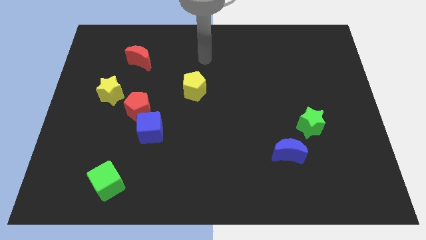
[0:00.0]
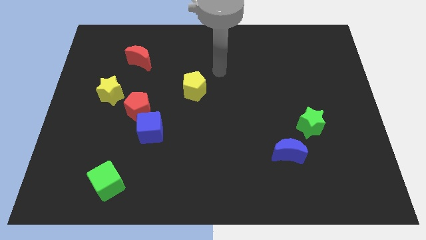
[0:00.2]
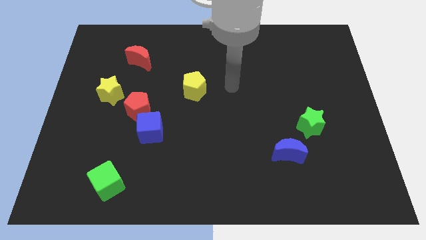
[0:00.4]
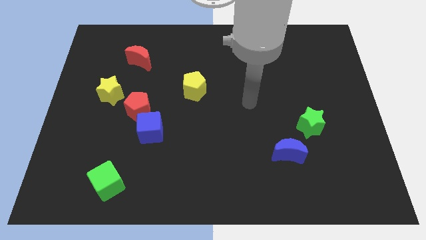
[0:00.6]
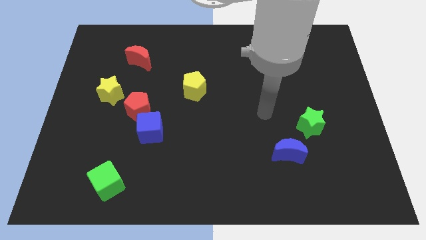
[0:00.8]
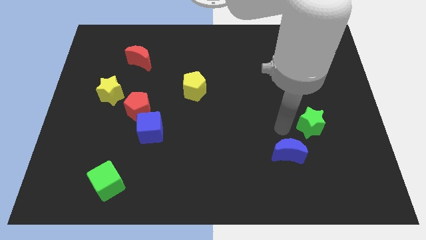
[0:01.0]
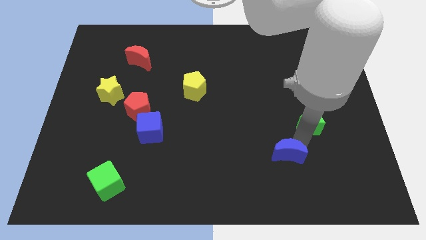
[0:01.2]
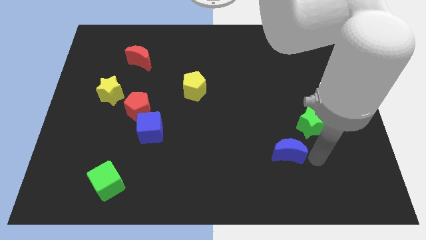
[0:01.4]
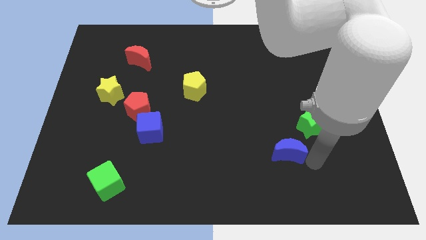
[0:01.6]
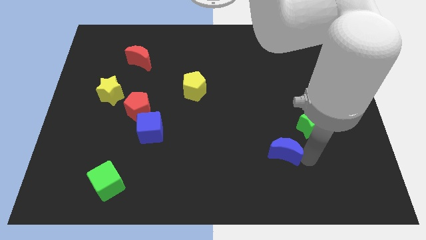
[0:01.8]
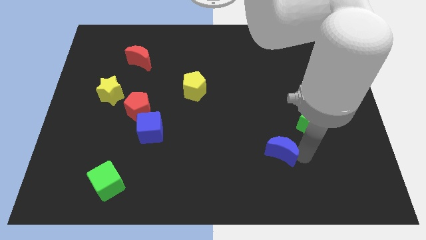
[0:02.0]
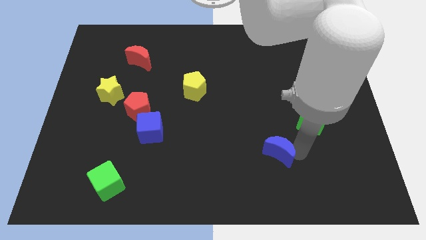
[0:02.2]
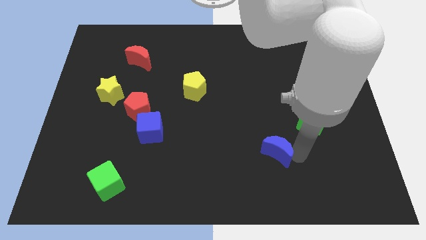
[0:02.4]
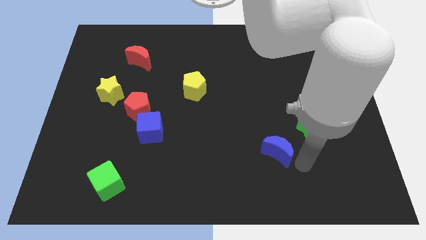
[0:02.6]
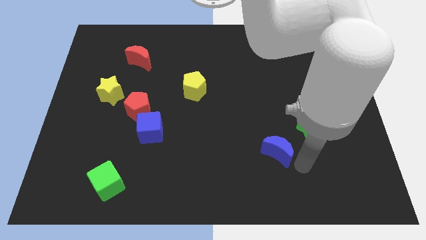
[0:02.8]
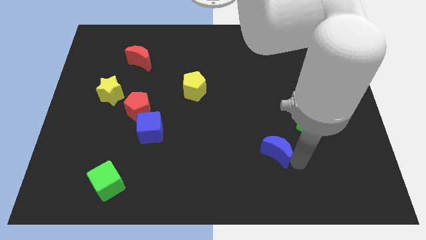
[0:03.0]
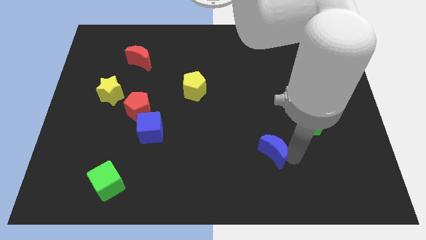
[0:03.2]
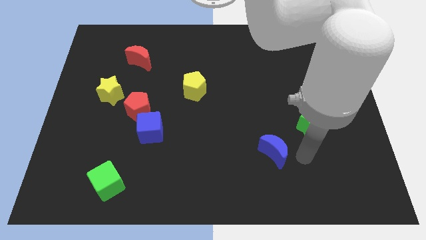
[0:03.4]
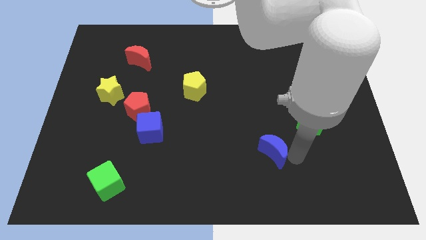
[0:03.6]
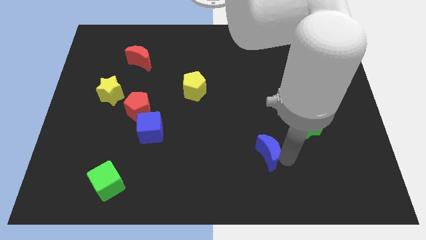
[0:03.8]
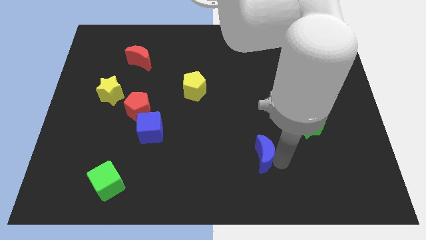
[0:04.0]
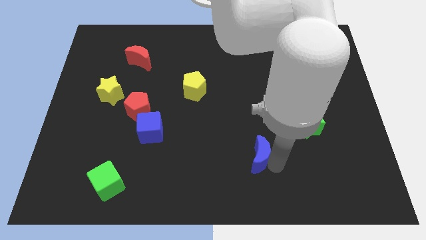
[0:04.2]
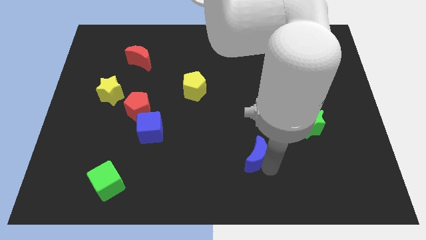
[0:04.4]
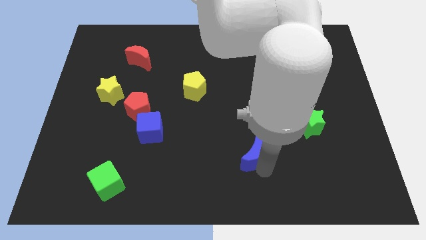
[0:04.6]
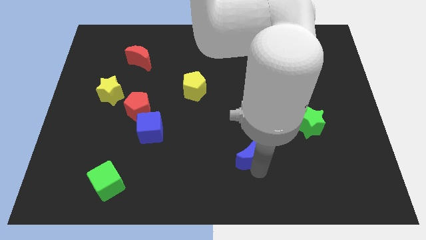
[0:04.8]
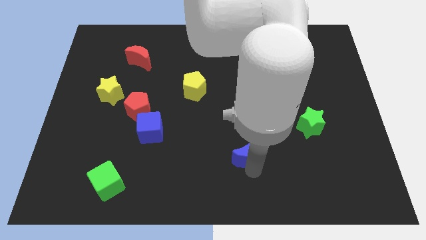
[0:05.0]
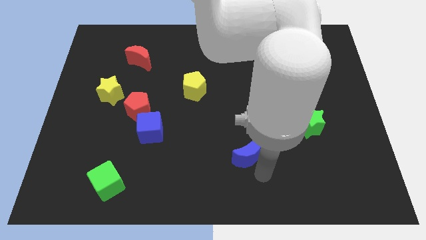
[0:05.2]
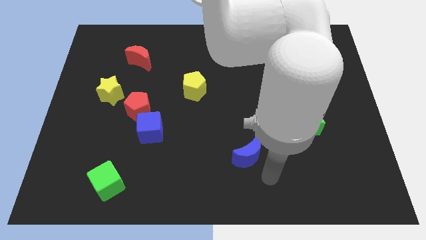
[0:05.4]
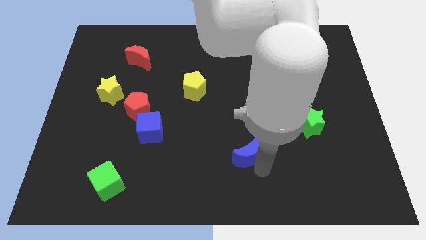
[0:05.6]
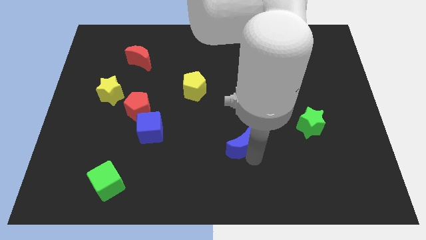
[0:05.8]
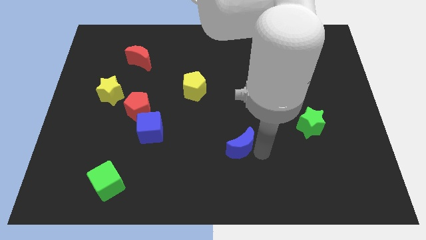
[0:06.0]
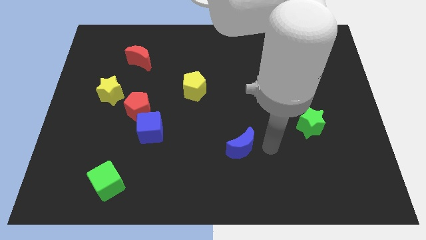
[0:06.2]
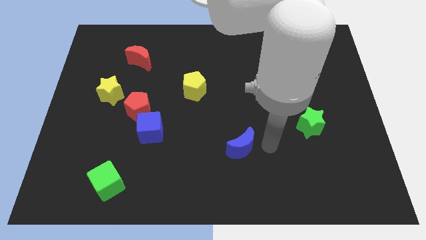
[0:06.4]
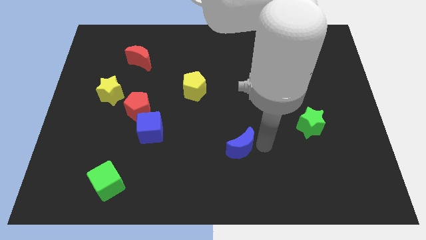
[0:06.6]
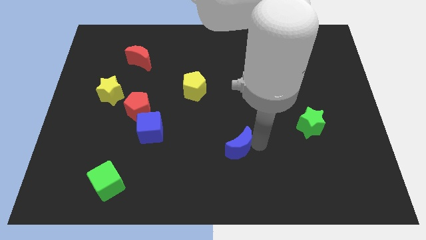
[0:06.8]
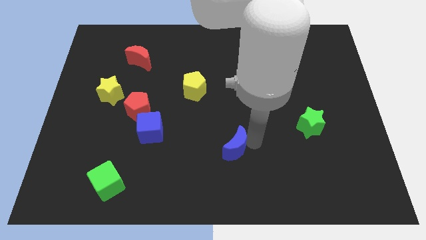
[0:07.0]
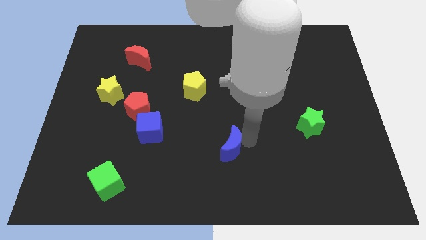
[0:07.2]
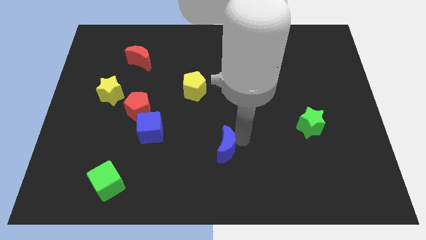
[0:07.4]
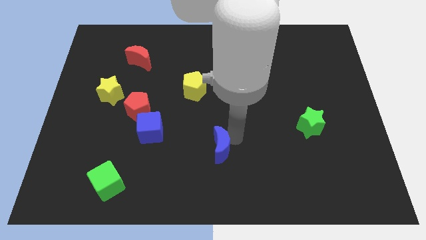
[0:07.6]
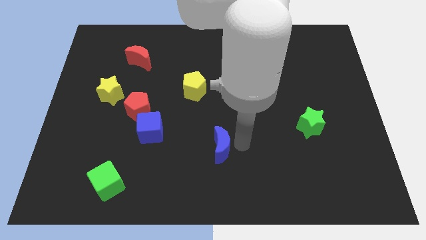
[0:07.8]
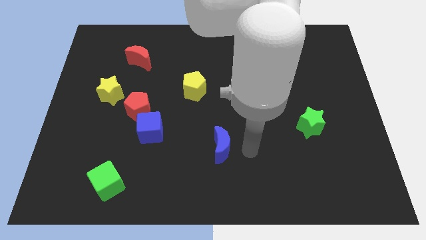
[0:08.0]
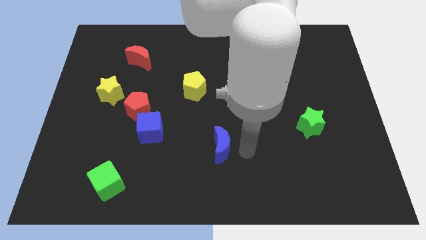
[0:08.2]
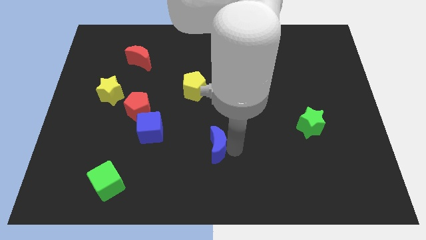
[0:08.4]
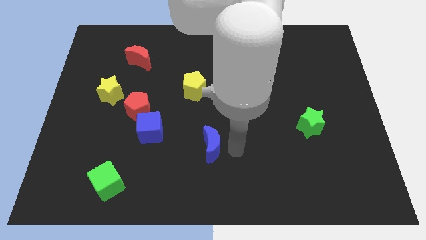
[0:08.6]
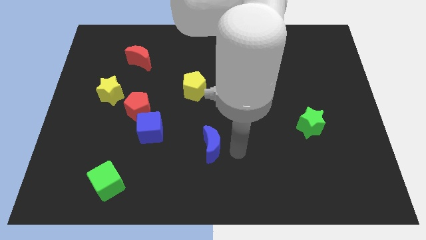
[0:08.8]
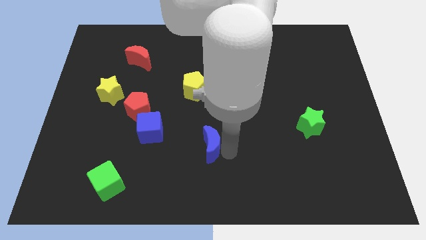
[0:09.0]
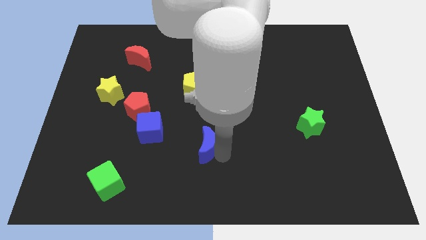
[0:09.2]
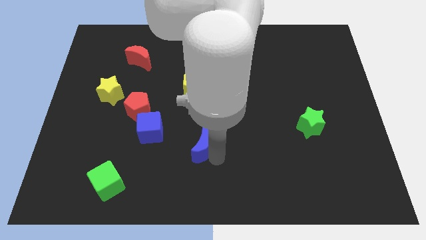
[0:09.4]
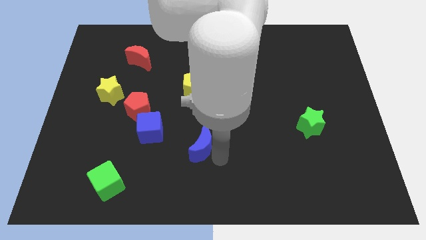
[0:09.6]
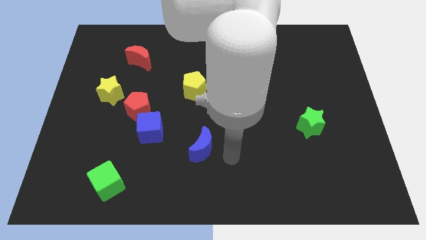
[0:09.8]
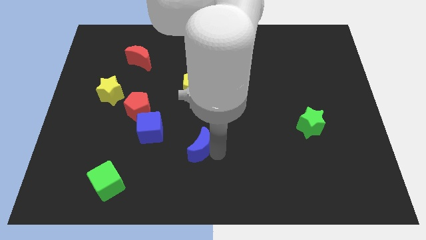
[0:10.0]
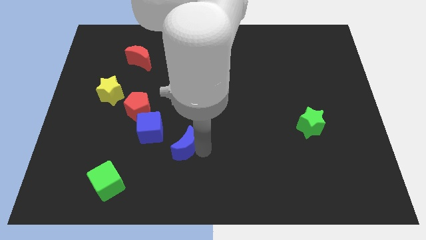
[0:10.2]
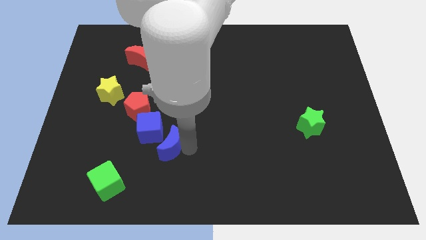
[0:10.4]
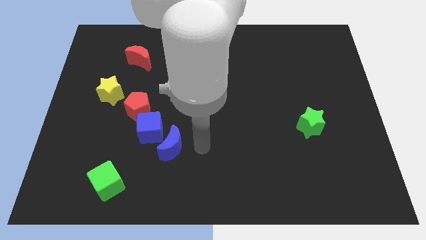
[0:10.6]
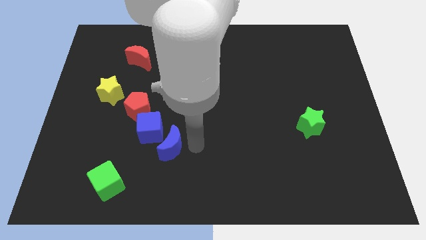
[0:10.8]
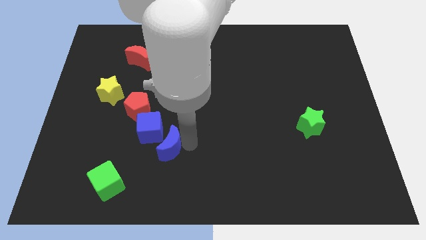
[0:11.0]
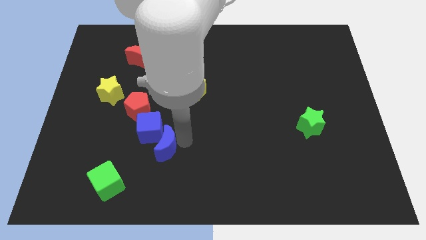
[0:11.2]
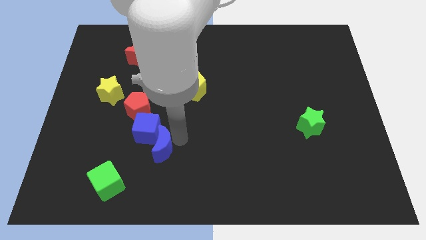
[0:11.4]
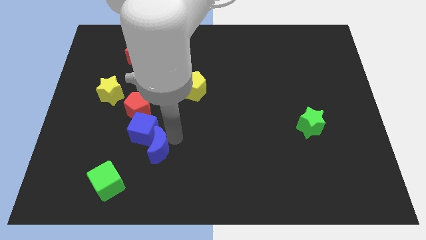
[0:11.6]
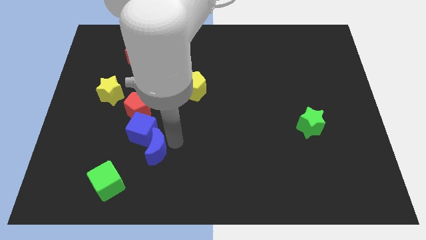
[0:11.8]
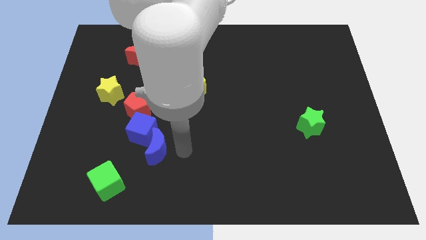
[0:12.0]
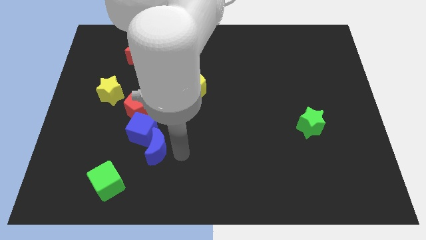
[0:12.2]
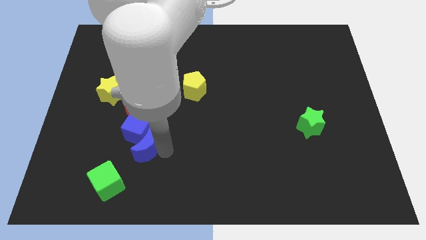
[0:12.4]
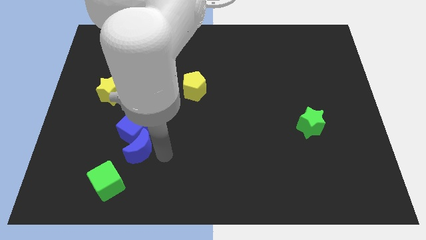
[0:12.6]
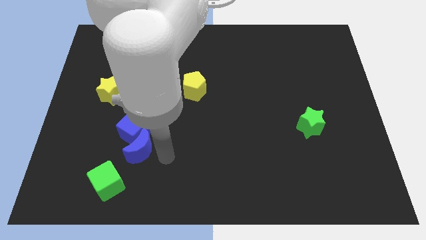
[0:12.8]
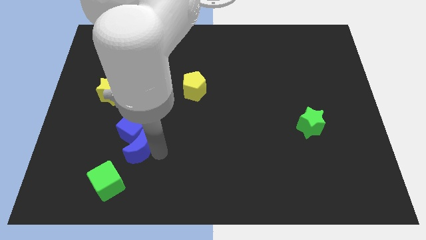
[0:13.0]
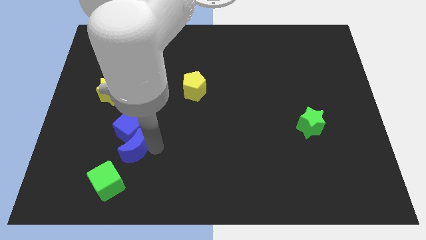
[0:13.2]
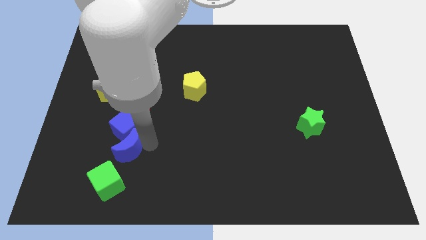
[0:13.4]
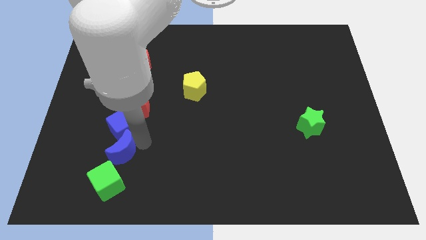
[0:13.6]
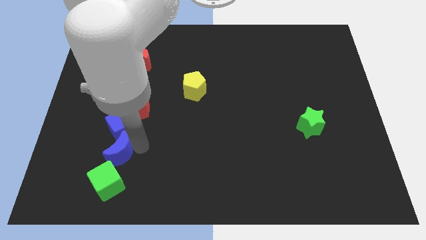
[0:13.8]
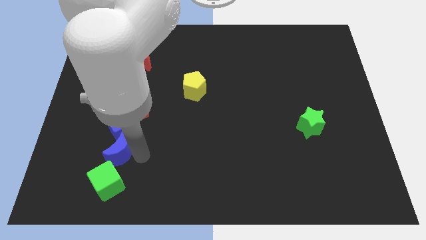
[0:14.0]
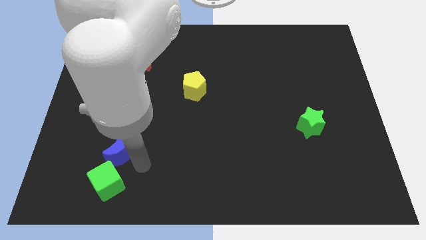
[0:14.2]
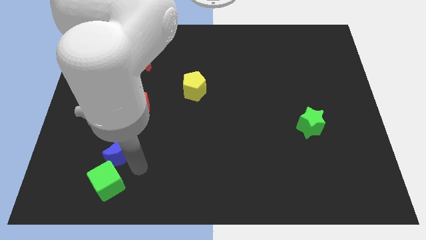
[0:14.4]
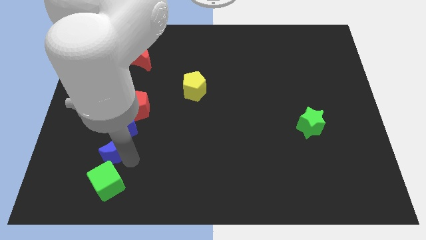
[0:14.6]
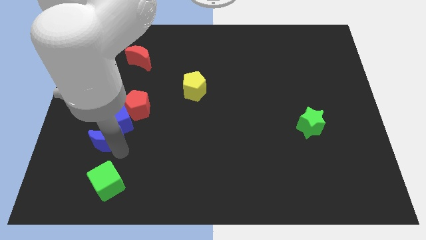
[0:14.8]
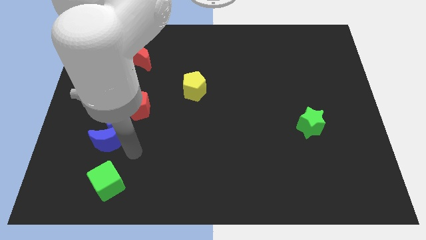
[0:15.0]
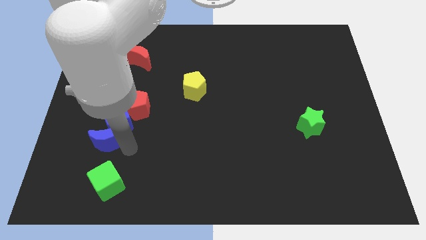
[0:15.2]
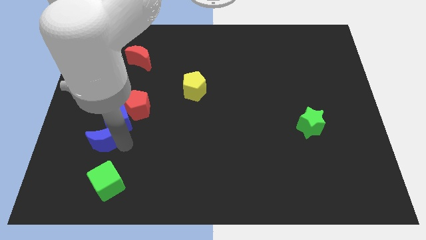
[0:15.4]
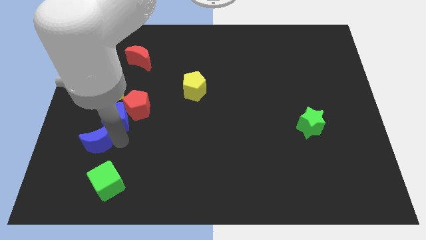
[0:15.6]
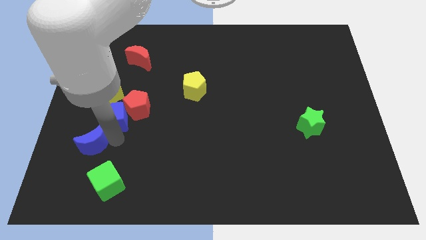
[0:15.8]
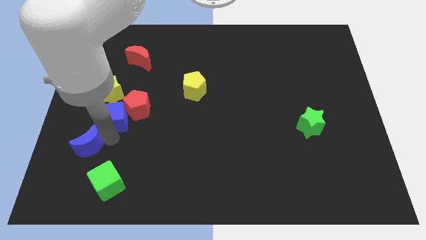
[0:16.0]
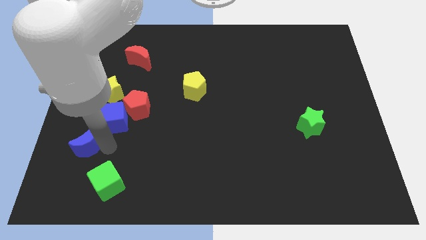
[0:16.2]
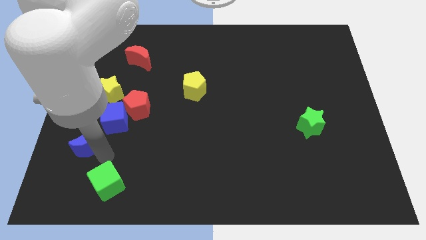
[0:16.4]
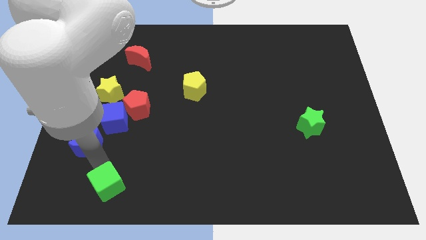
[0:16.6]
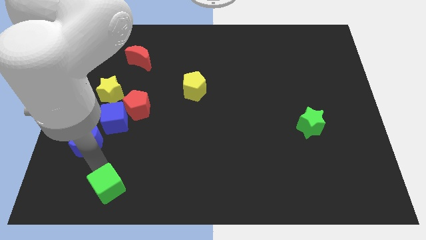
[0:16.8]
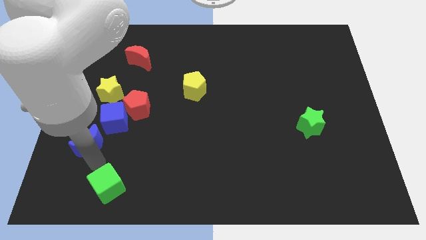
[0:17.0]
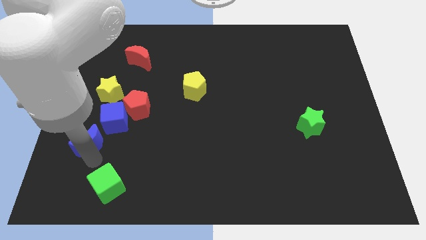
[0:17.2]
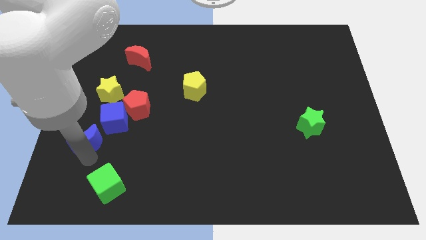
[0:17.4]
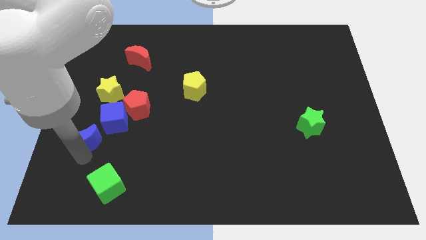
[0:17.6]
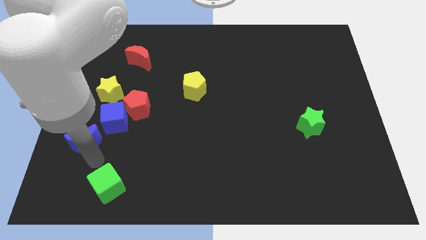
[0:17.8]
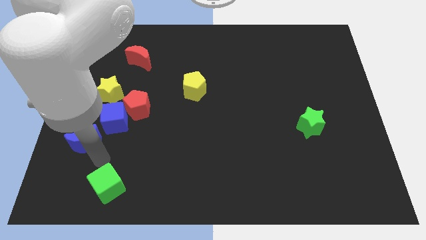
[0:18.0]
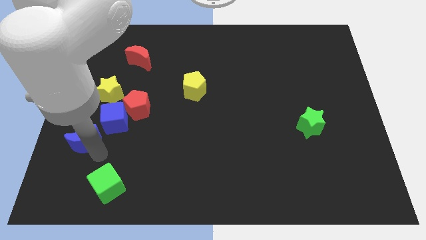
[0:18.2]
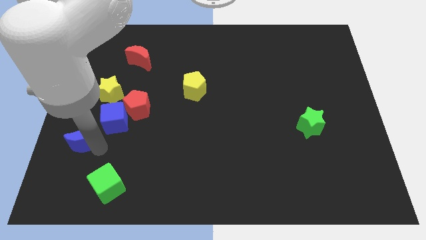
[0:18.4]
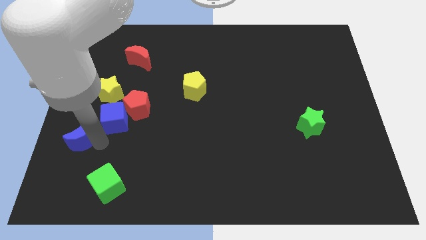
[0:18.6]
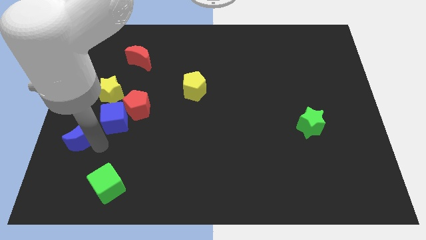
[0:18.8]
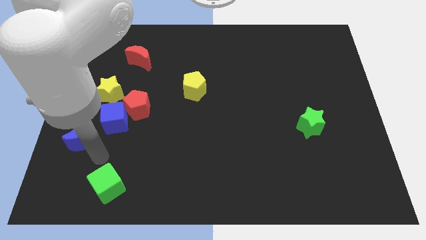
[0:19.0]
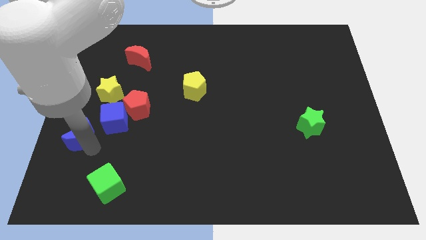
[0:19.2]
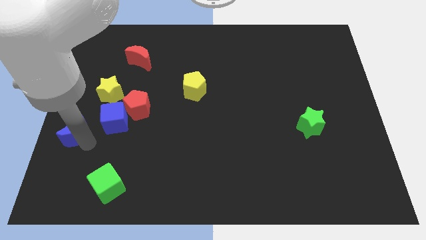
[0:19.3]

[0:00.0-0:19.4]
slide the blue moon to the center left
